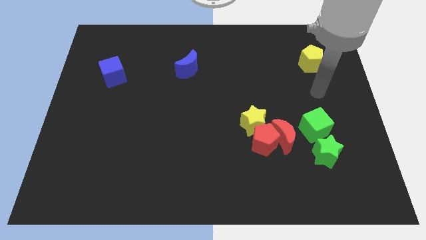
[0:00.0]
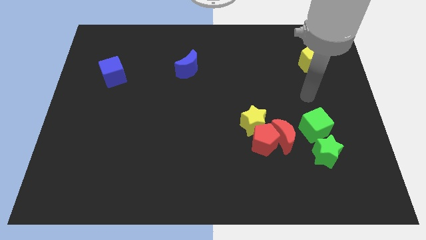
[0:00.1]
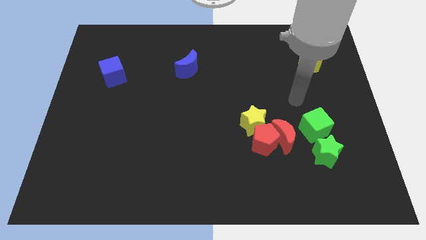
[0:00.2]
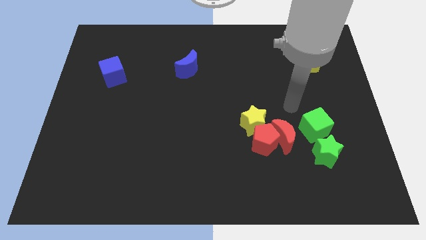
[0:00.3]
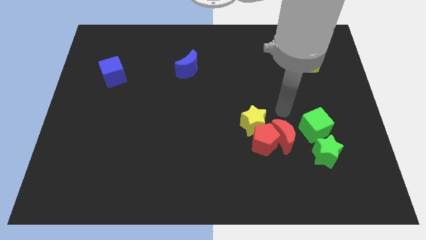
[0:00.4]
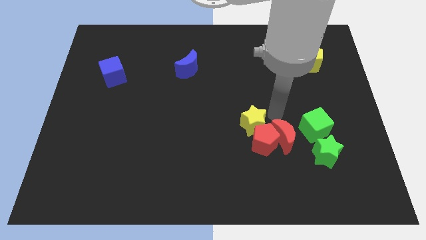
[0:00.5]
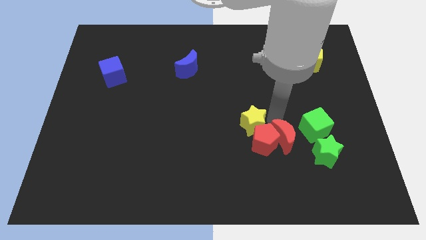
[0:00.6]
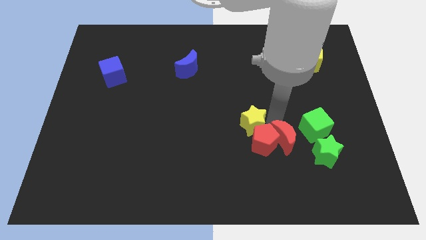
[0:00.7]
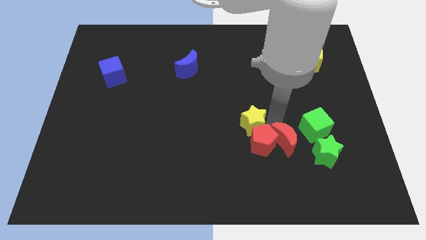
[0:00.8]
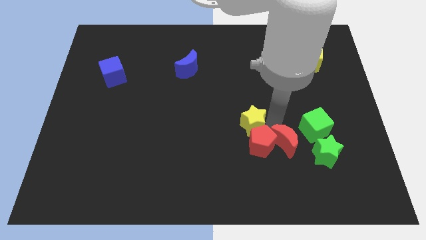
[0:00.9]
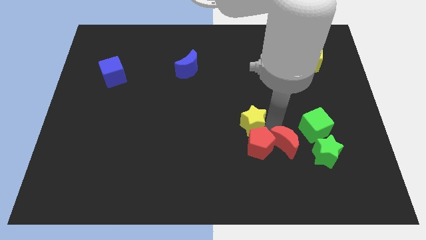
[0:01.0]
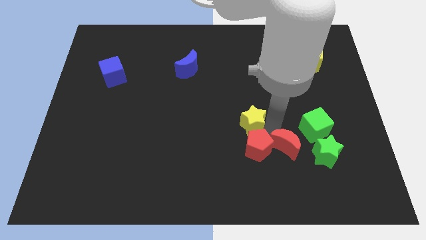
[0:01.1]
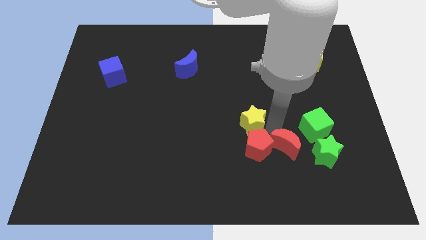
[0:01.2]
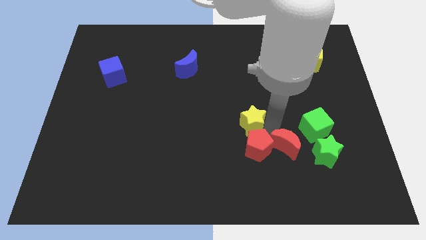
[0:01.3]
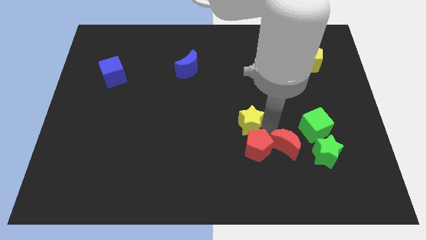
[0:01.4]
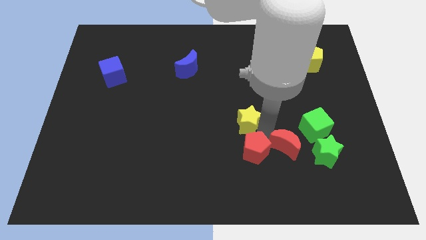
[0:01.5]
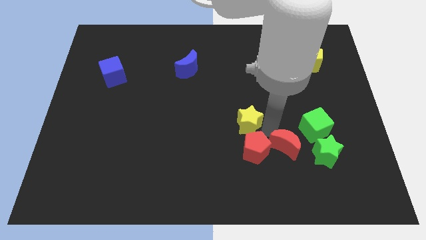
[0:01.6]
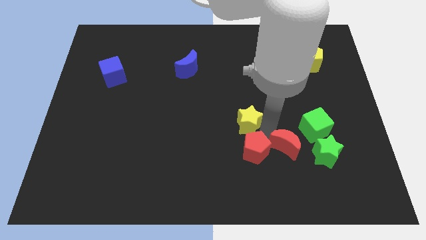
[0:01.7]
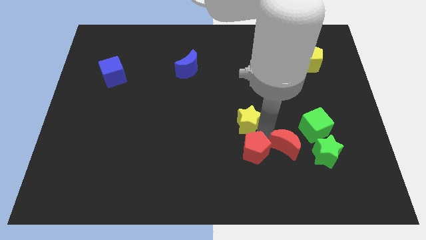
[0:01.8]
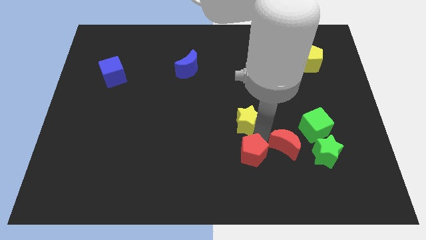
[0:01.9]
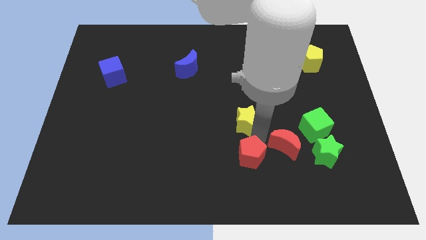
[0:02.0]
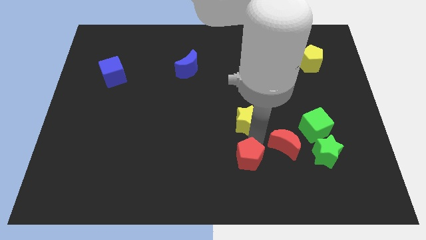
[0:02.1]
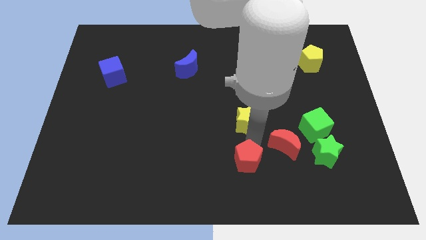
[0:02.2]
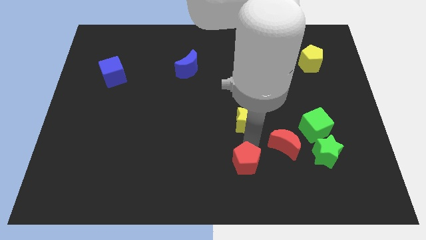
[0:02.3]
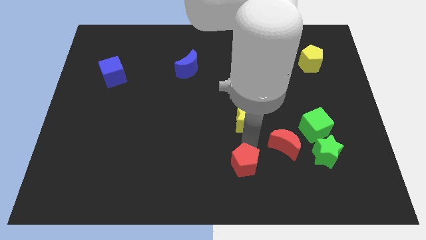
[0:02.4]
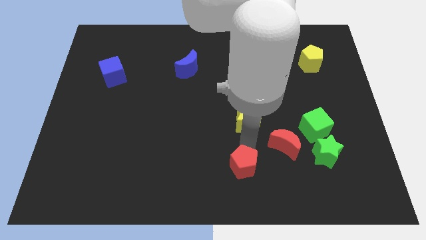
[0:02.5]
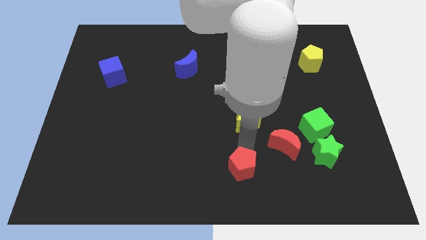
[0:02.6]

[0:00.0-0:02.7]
separate the red pentagon from the red moon and yellow star

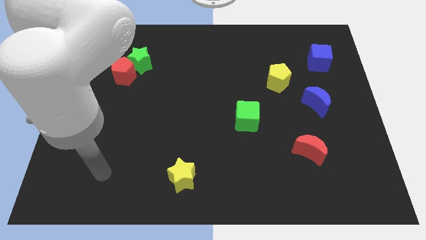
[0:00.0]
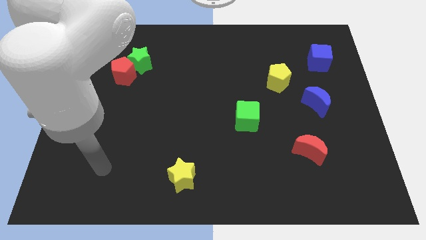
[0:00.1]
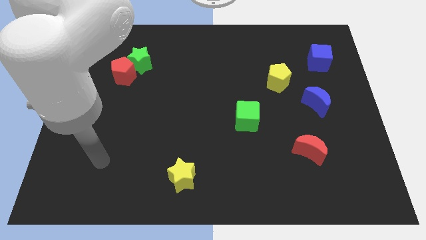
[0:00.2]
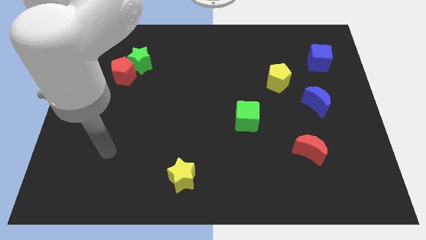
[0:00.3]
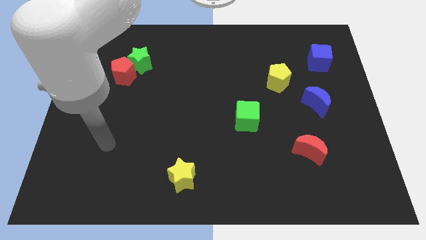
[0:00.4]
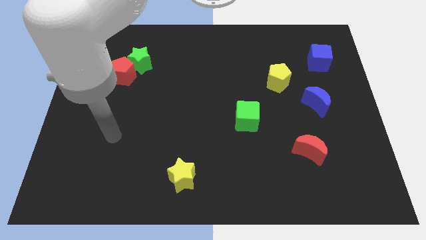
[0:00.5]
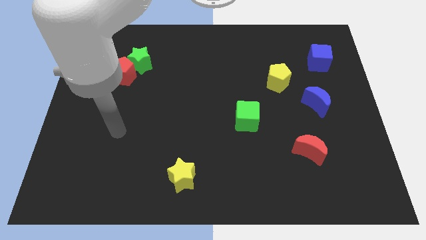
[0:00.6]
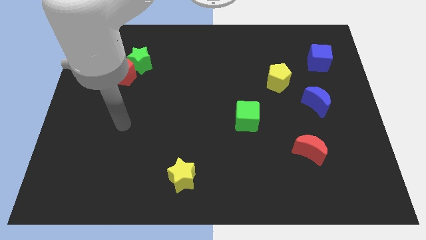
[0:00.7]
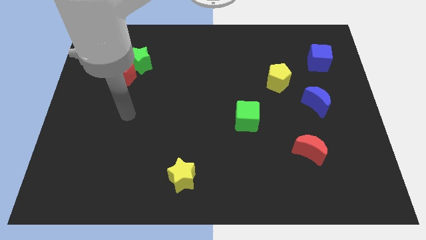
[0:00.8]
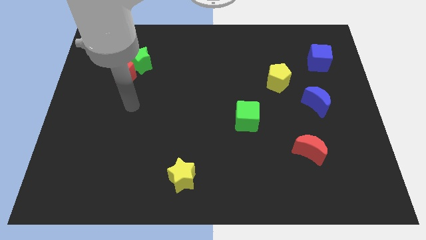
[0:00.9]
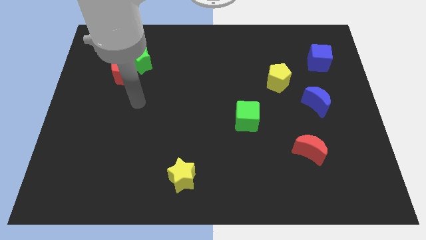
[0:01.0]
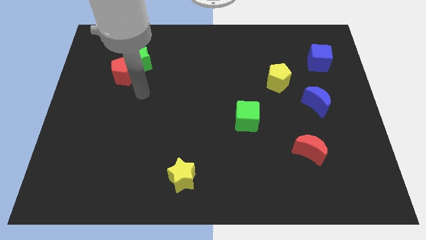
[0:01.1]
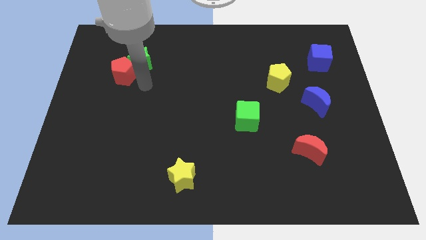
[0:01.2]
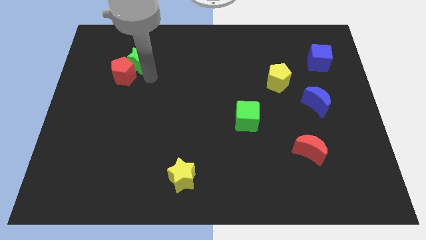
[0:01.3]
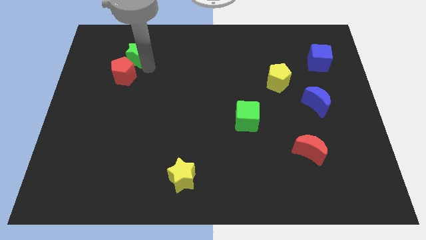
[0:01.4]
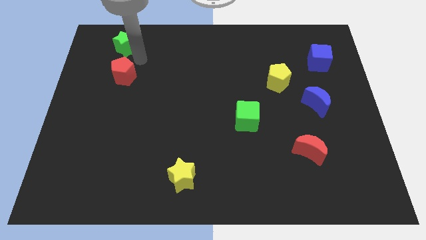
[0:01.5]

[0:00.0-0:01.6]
move the red pentagon away from the green star

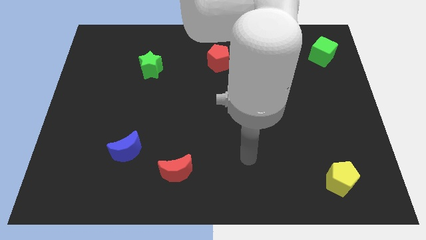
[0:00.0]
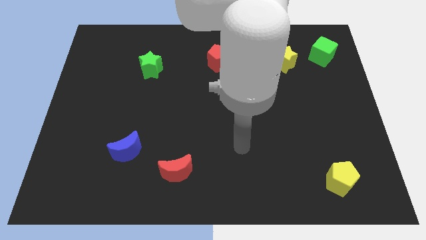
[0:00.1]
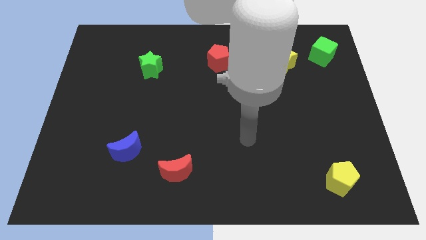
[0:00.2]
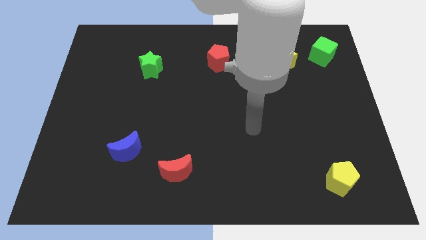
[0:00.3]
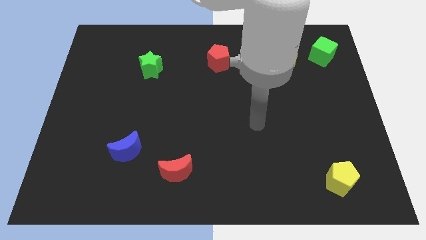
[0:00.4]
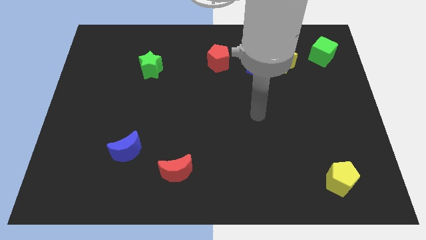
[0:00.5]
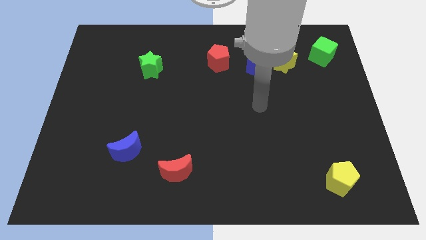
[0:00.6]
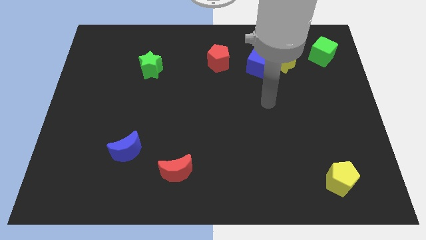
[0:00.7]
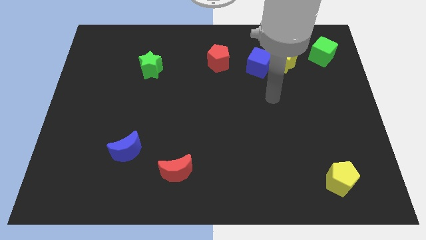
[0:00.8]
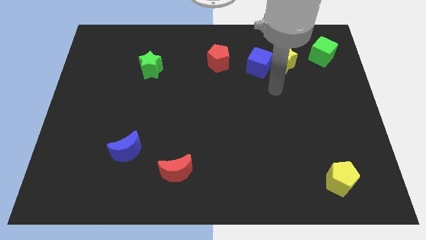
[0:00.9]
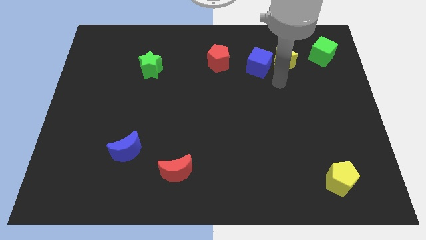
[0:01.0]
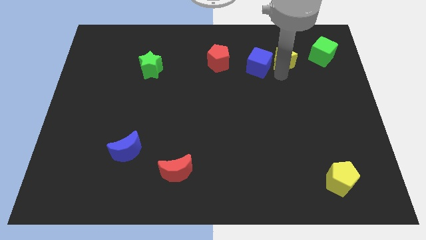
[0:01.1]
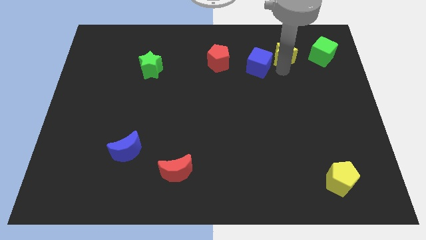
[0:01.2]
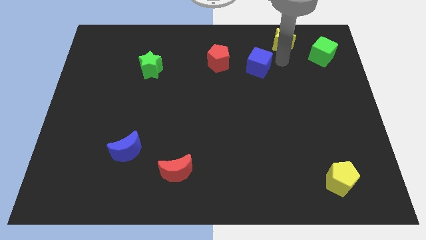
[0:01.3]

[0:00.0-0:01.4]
pull the blue cube apart from the yellow star

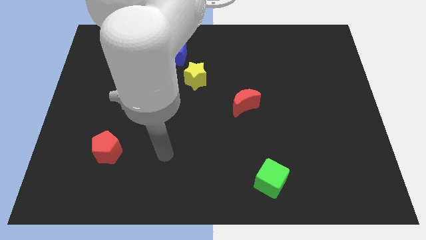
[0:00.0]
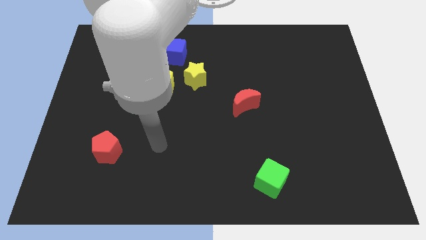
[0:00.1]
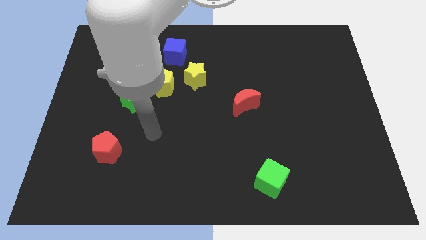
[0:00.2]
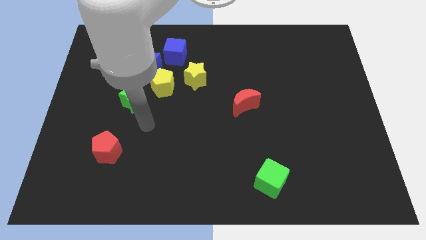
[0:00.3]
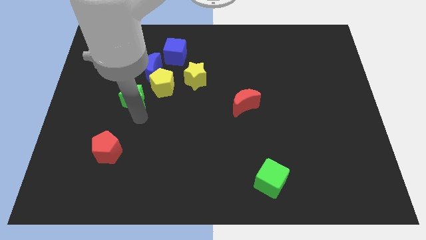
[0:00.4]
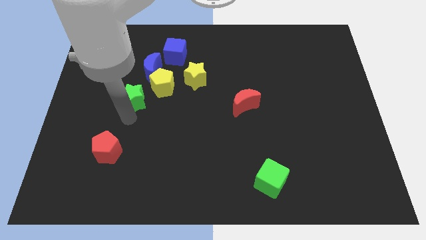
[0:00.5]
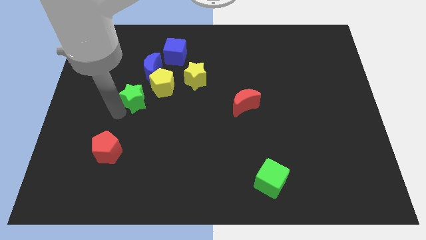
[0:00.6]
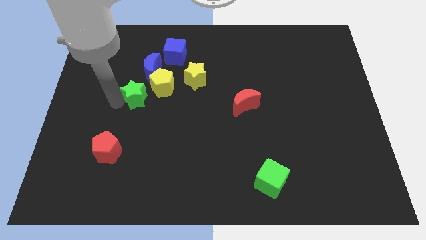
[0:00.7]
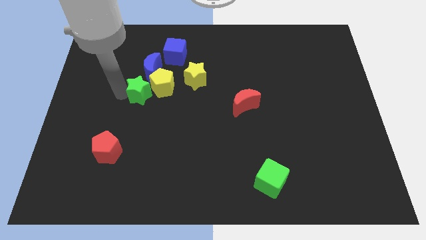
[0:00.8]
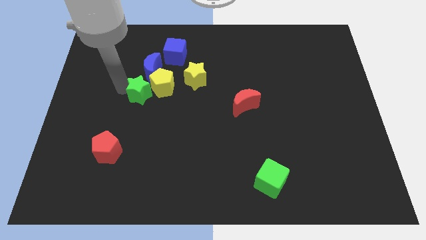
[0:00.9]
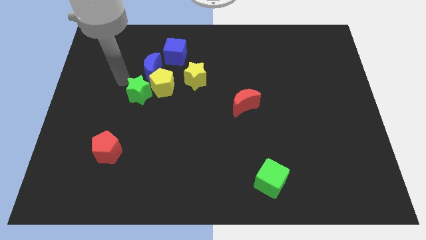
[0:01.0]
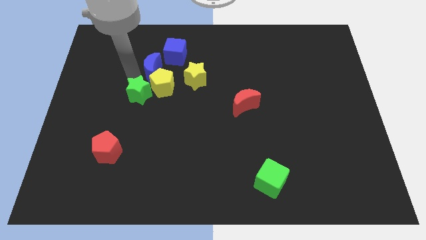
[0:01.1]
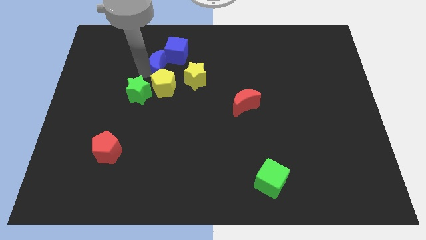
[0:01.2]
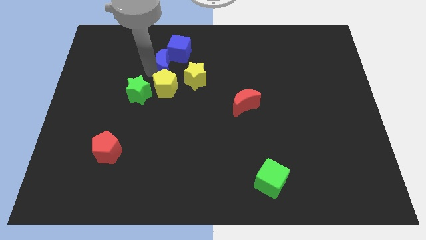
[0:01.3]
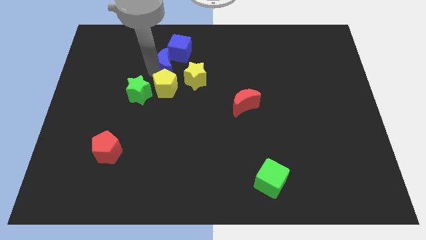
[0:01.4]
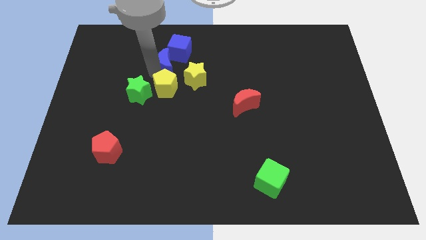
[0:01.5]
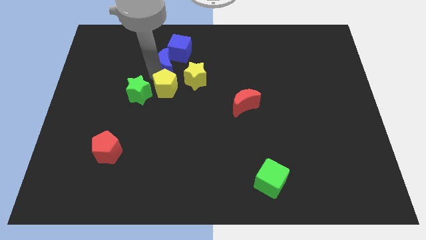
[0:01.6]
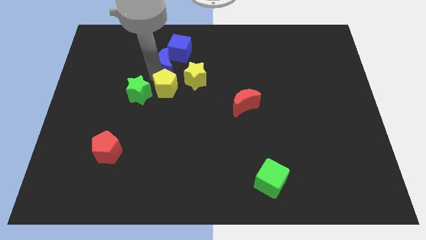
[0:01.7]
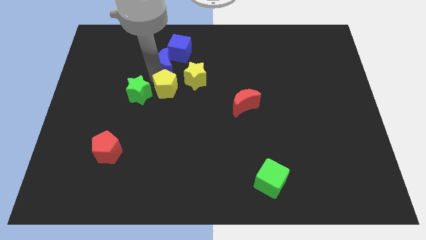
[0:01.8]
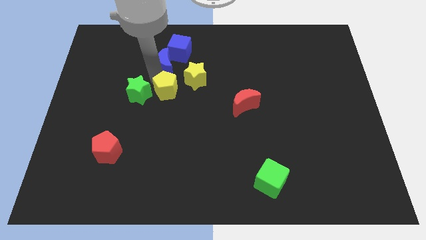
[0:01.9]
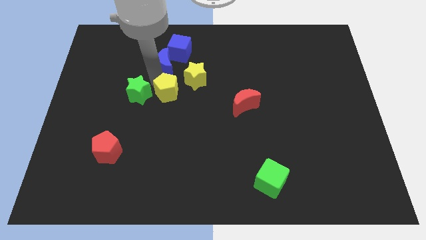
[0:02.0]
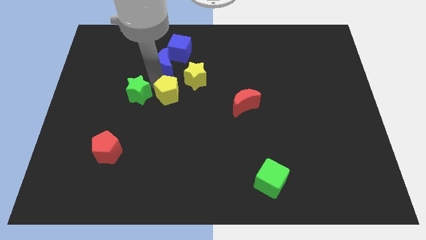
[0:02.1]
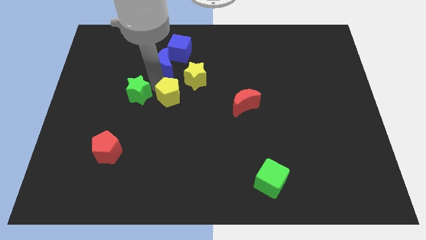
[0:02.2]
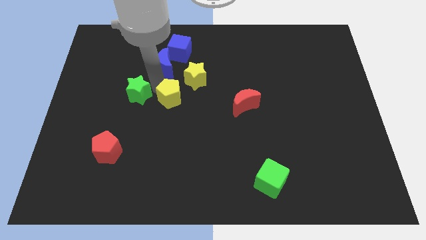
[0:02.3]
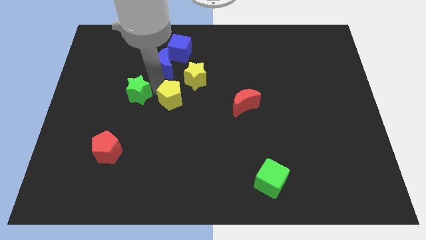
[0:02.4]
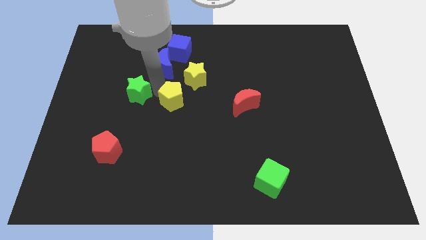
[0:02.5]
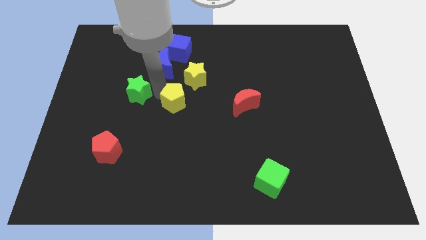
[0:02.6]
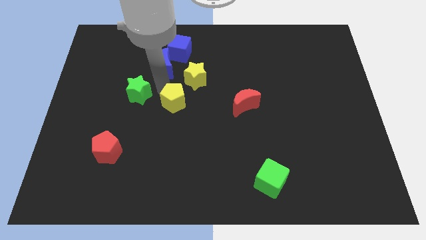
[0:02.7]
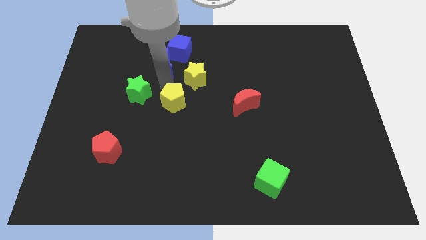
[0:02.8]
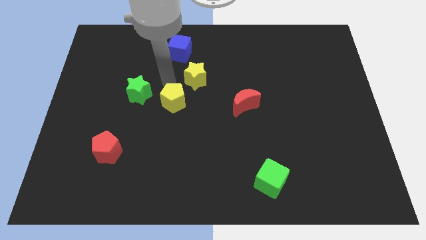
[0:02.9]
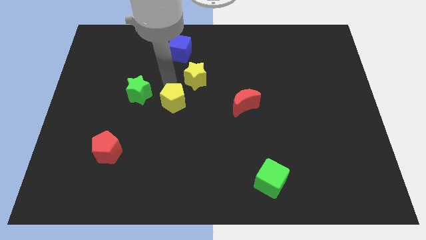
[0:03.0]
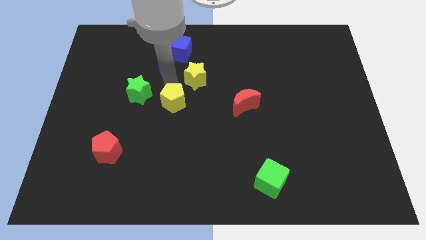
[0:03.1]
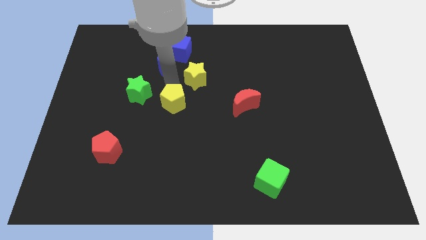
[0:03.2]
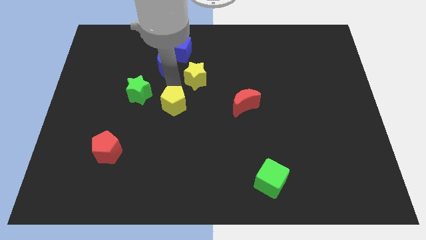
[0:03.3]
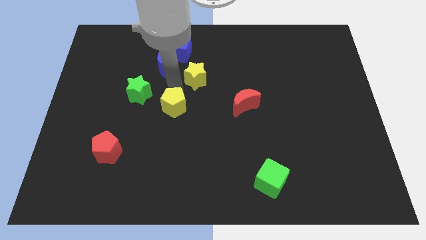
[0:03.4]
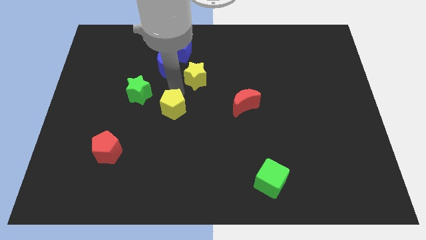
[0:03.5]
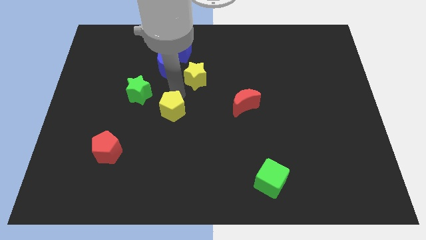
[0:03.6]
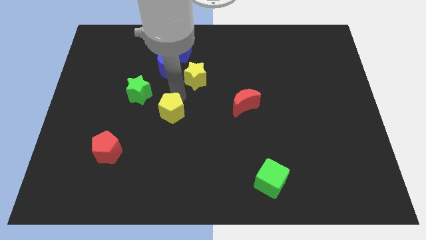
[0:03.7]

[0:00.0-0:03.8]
pull the yellow pentagon apart from the blue moon, green star, and yellow star
